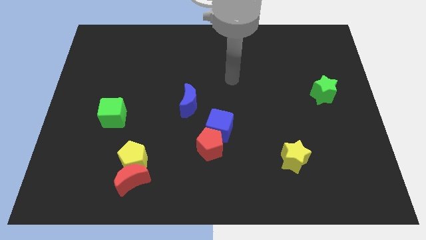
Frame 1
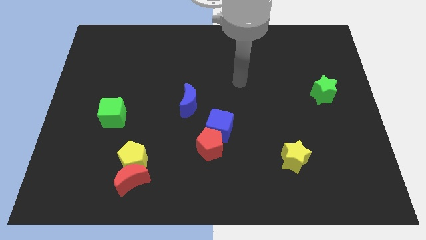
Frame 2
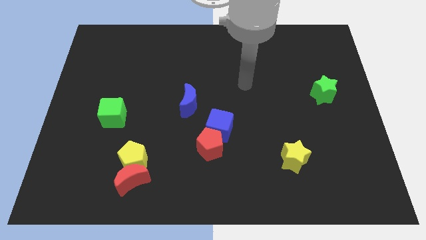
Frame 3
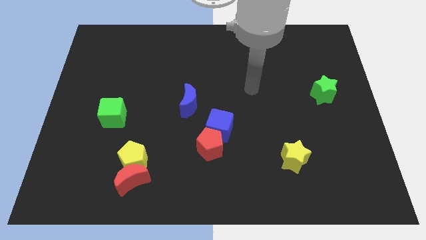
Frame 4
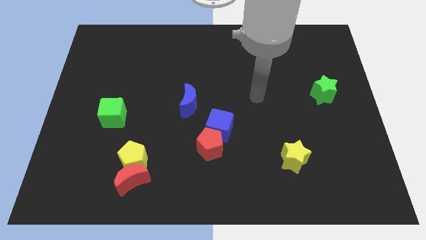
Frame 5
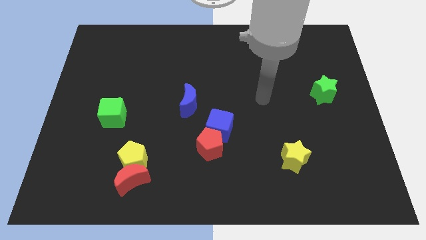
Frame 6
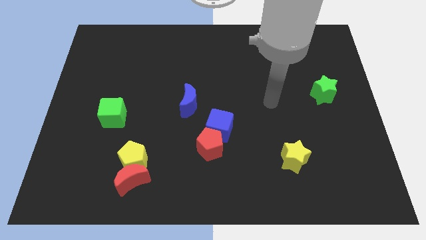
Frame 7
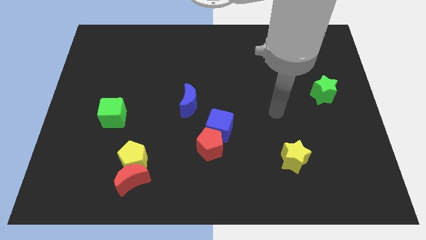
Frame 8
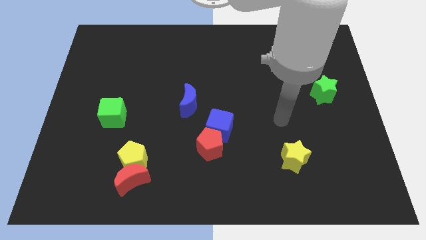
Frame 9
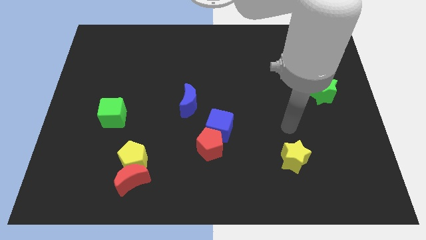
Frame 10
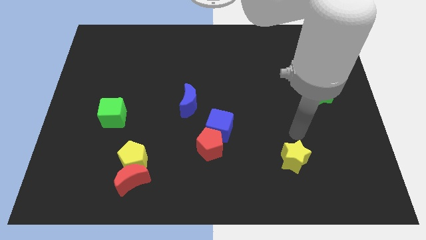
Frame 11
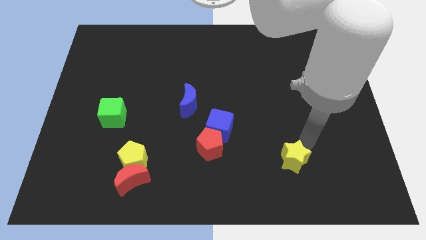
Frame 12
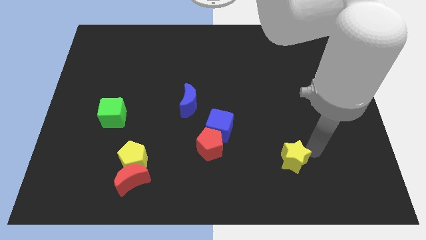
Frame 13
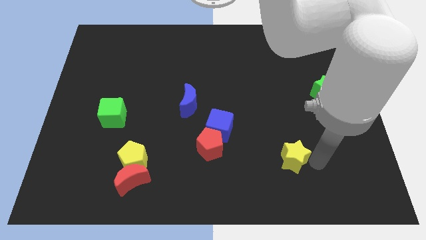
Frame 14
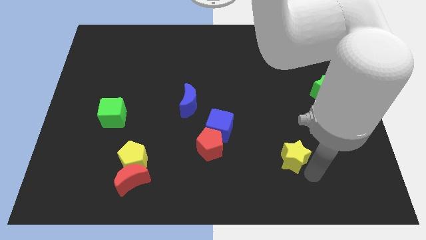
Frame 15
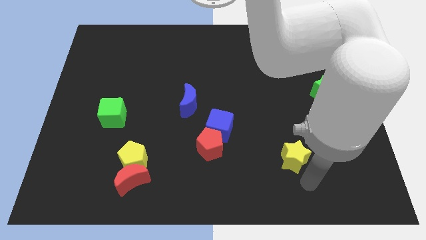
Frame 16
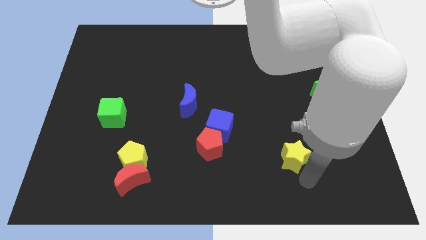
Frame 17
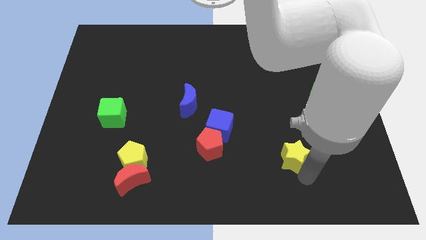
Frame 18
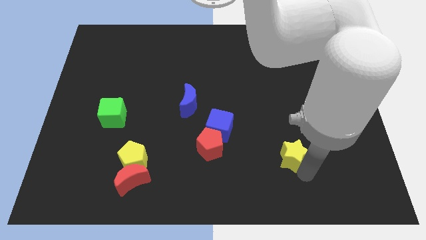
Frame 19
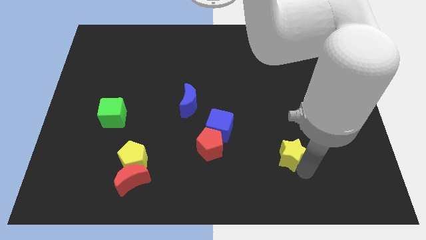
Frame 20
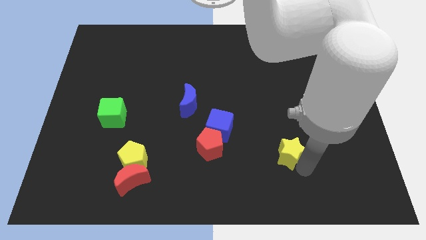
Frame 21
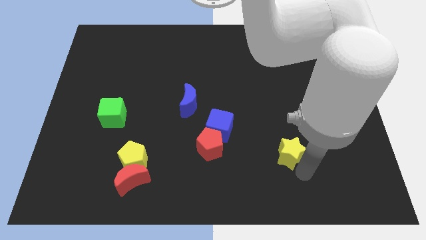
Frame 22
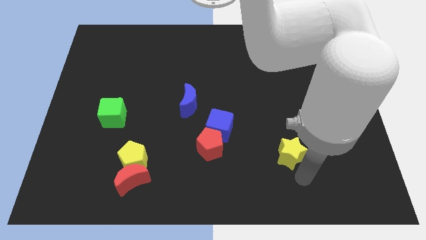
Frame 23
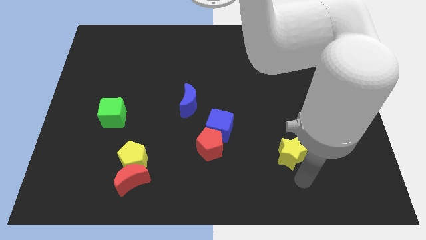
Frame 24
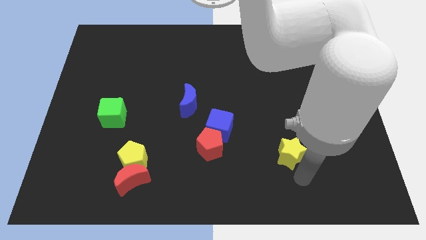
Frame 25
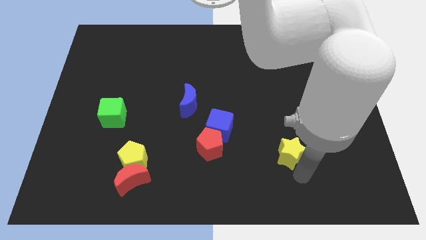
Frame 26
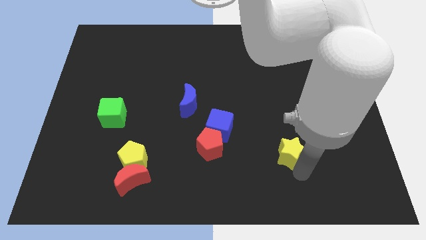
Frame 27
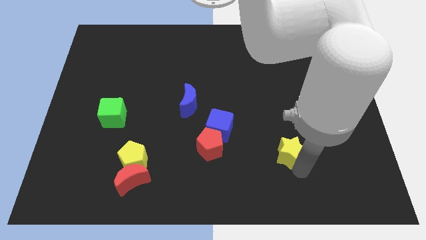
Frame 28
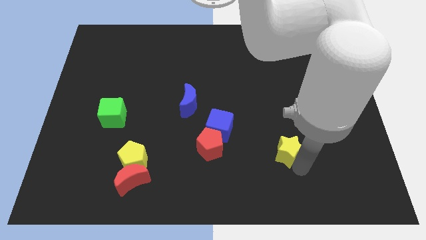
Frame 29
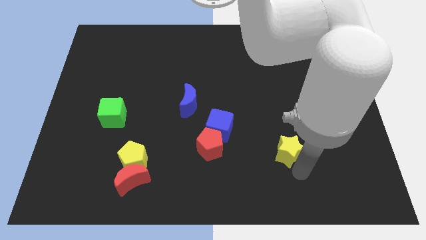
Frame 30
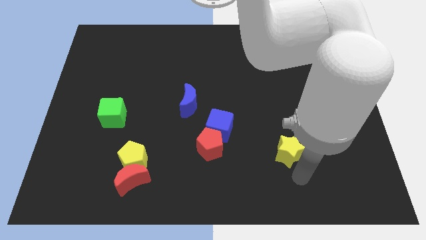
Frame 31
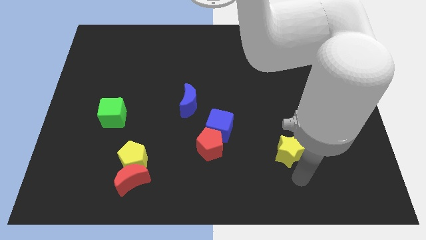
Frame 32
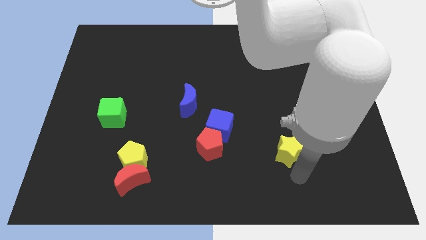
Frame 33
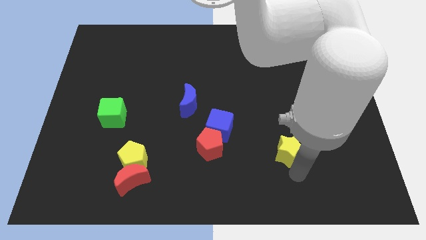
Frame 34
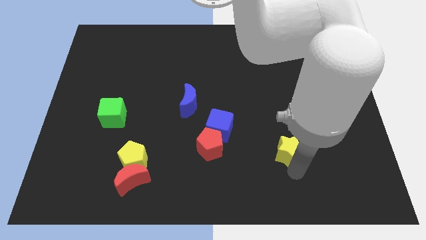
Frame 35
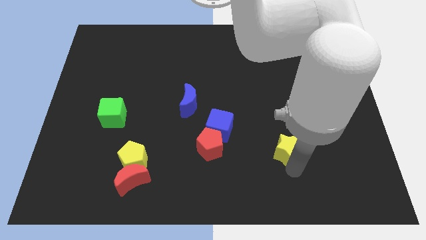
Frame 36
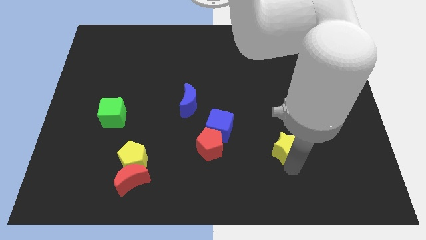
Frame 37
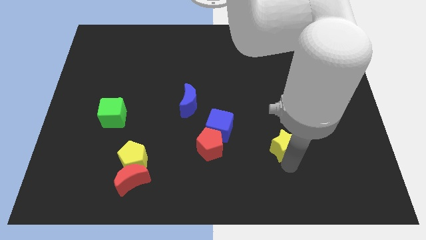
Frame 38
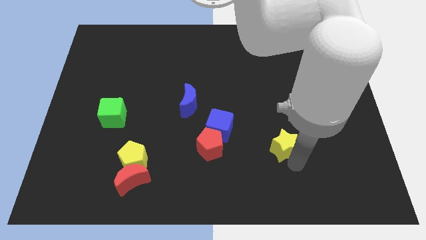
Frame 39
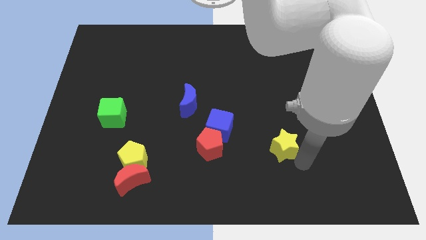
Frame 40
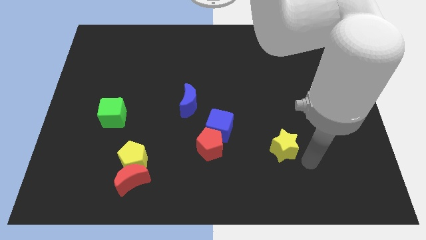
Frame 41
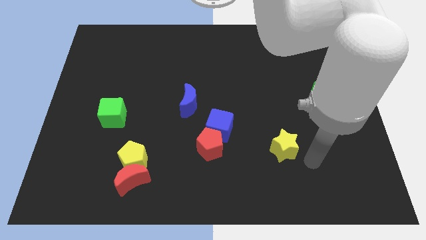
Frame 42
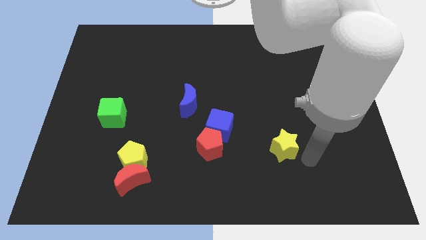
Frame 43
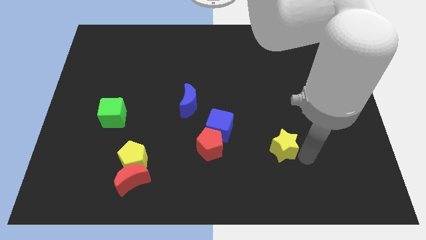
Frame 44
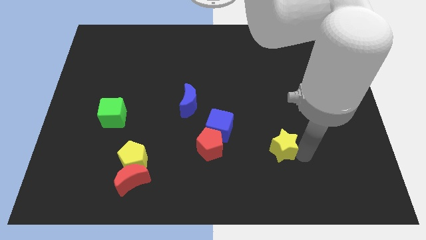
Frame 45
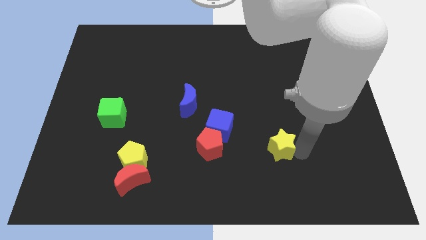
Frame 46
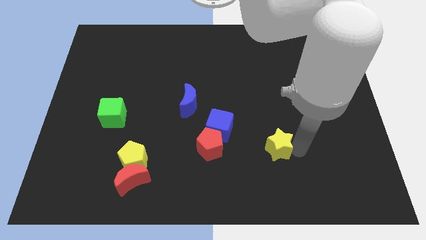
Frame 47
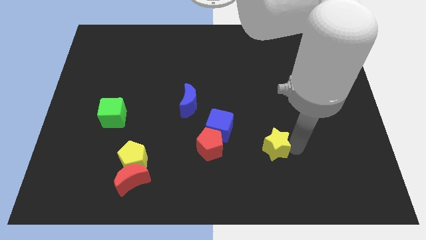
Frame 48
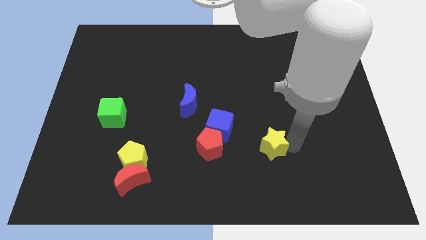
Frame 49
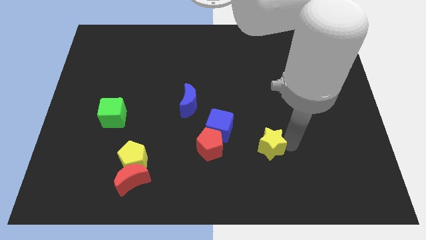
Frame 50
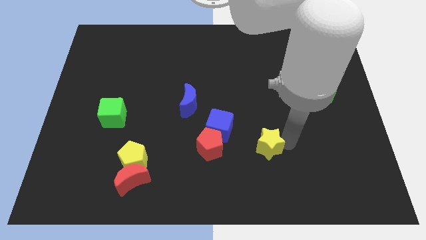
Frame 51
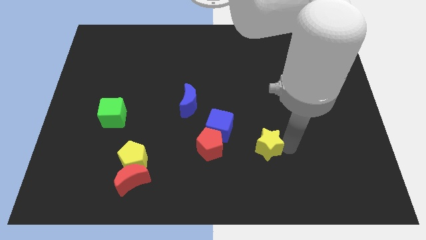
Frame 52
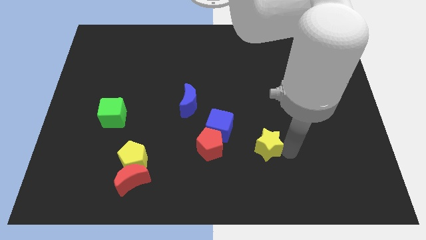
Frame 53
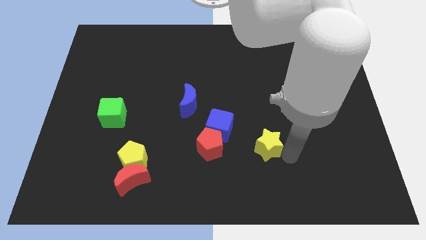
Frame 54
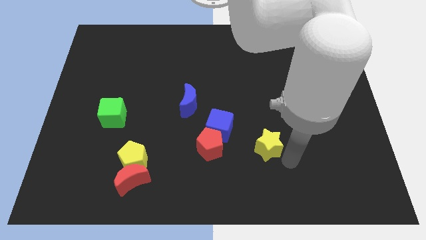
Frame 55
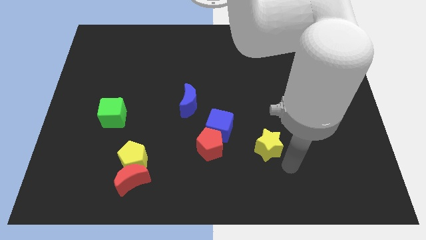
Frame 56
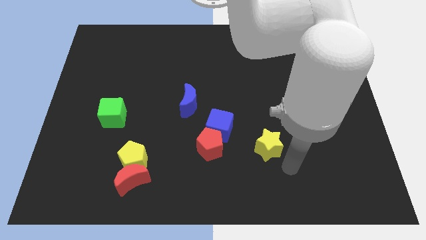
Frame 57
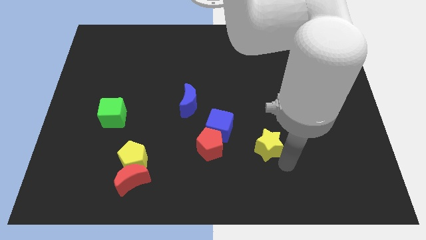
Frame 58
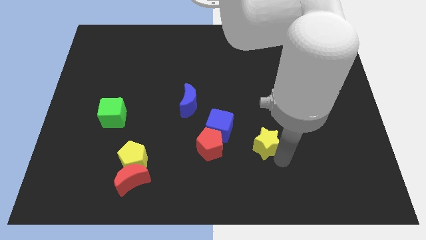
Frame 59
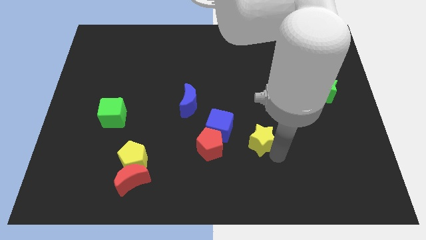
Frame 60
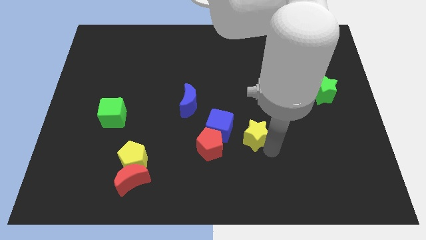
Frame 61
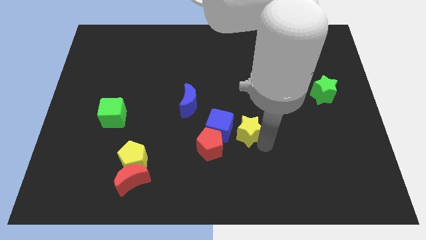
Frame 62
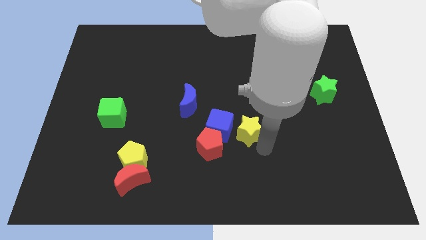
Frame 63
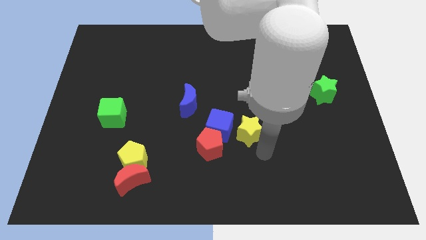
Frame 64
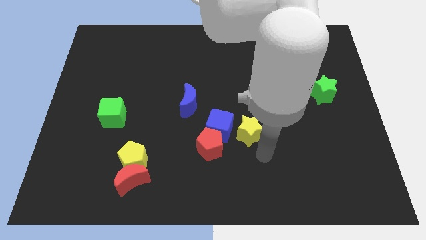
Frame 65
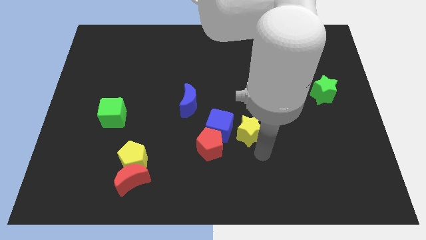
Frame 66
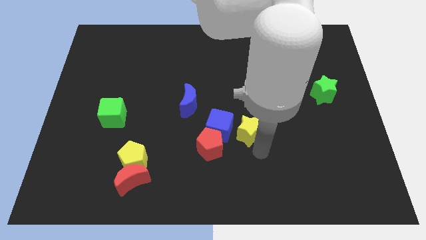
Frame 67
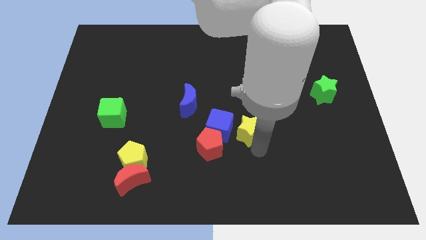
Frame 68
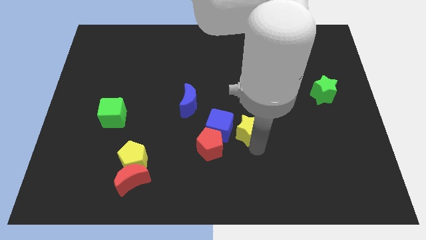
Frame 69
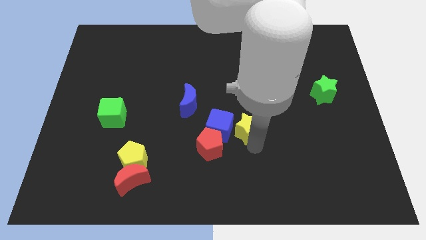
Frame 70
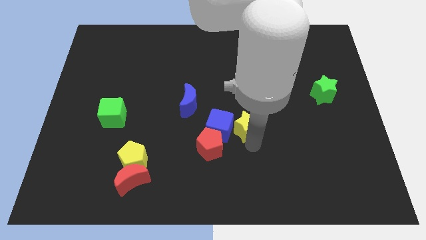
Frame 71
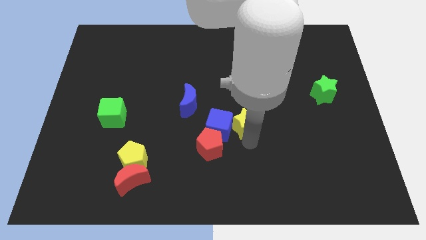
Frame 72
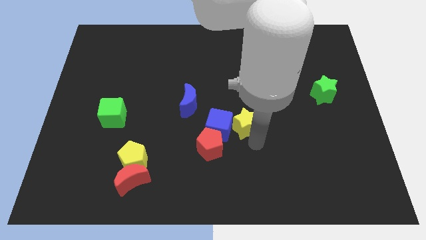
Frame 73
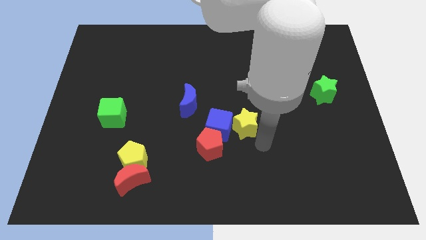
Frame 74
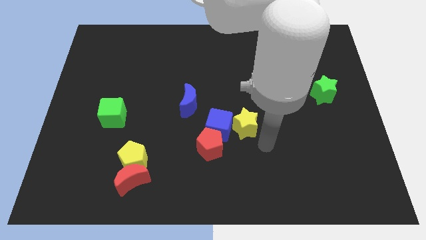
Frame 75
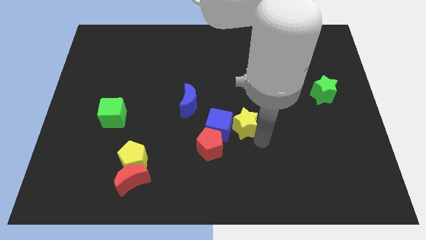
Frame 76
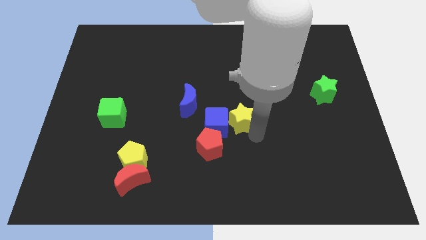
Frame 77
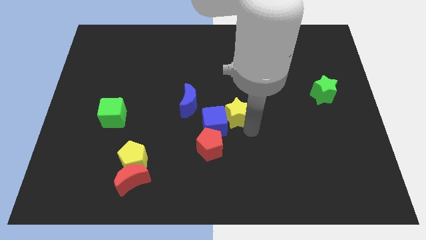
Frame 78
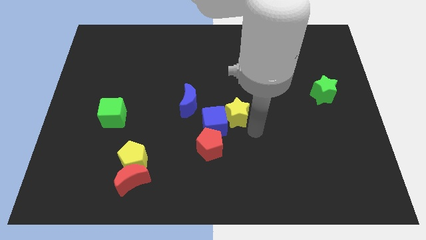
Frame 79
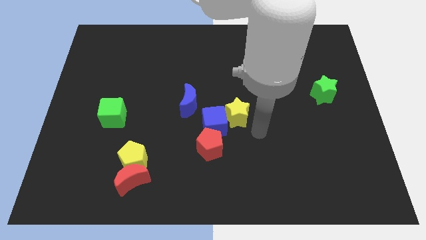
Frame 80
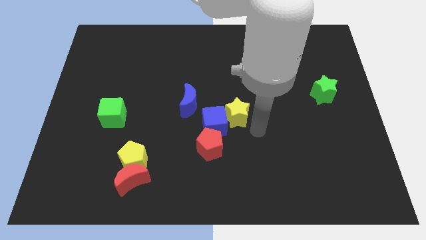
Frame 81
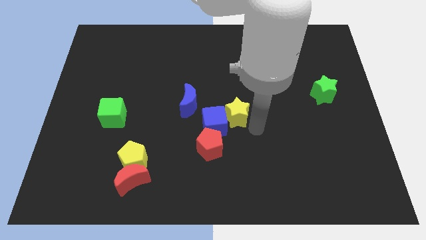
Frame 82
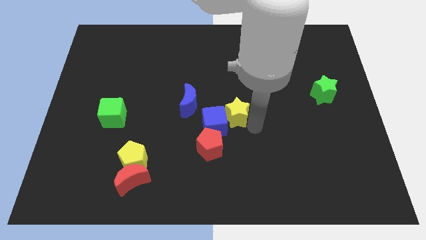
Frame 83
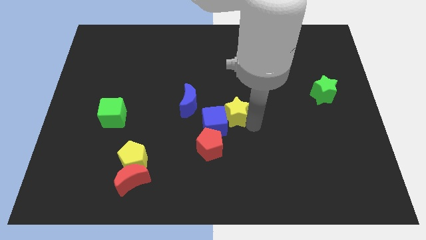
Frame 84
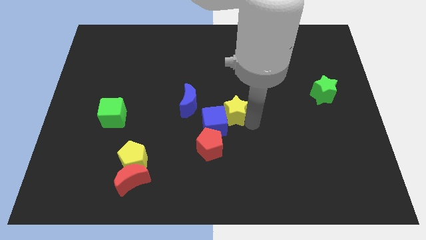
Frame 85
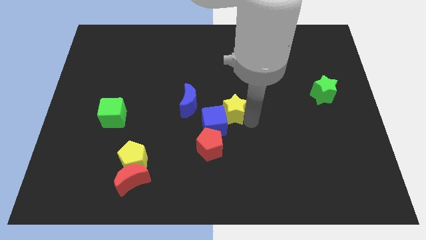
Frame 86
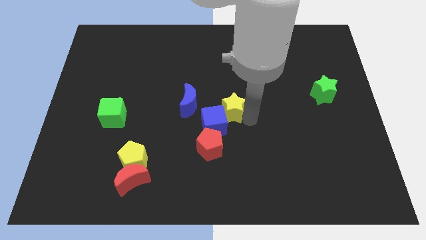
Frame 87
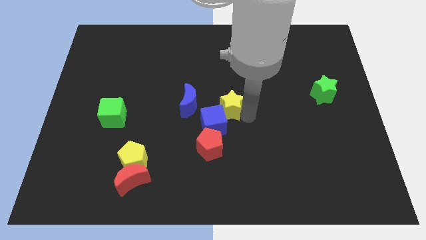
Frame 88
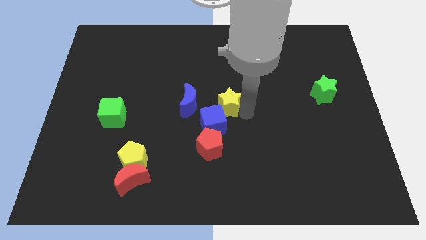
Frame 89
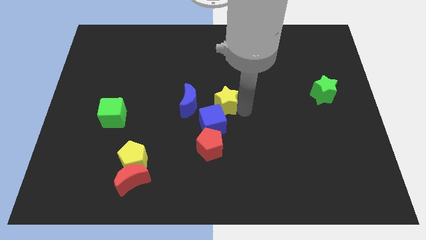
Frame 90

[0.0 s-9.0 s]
push the yellow star up and left
